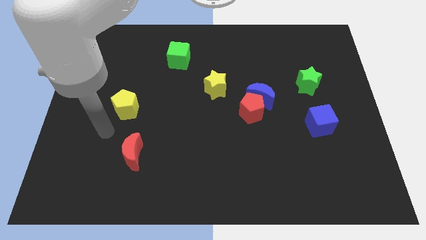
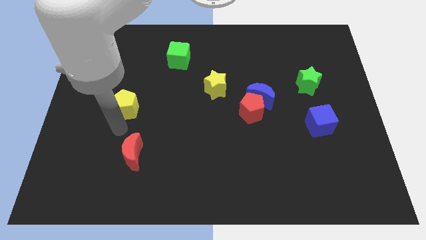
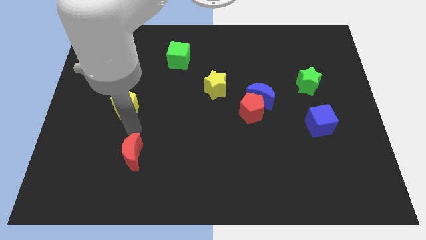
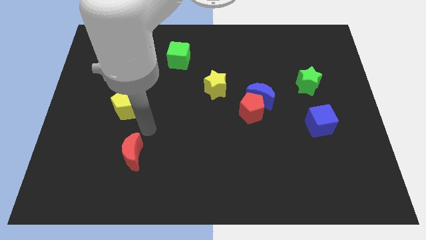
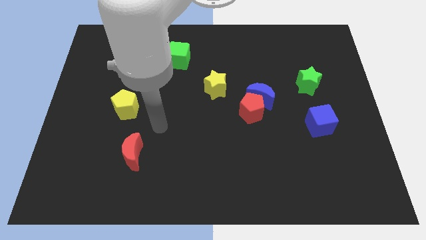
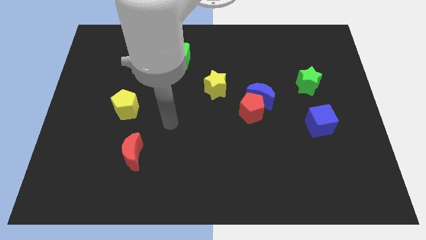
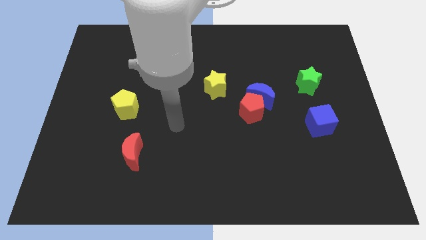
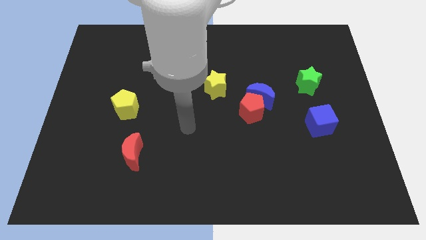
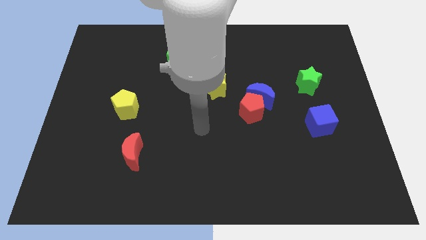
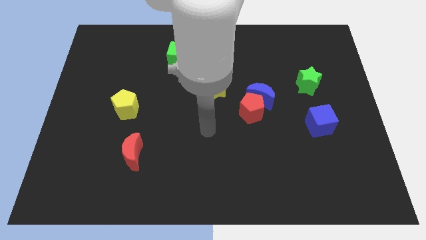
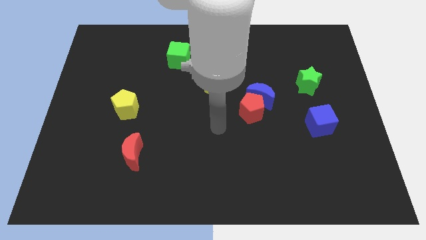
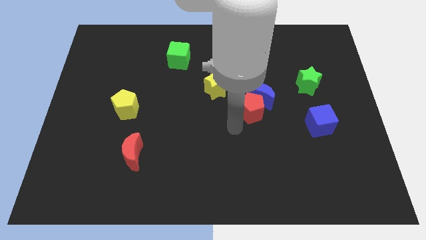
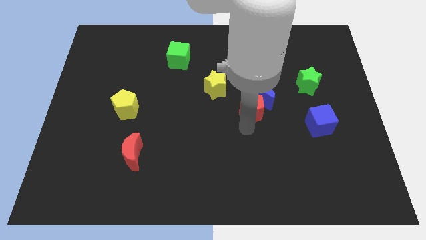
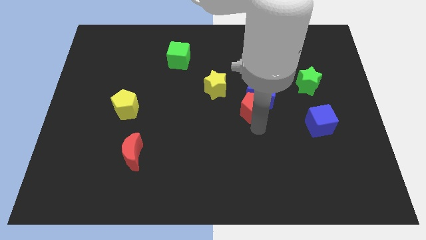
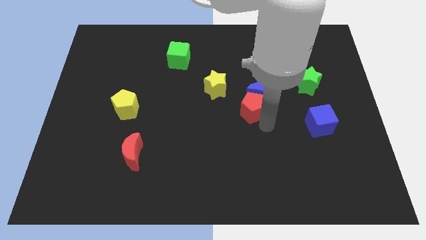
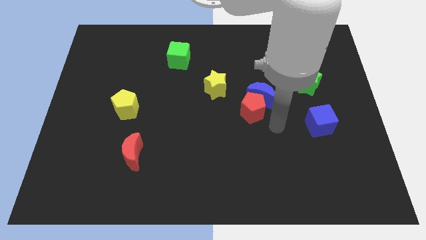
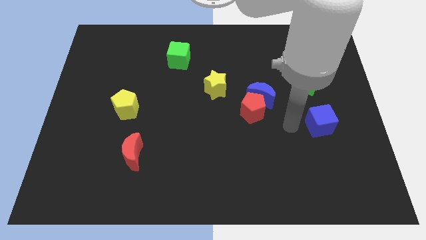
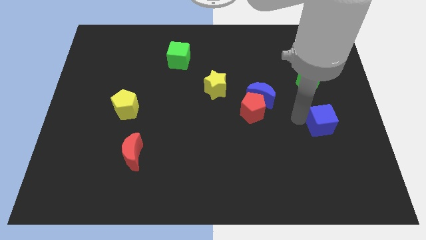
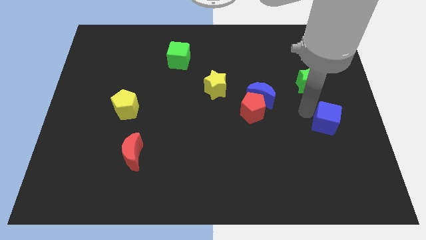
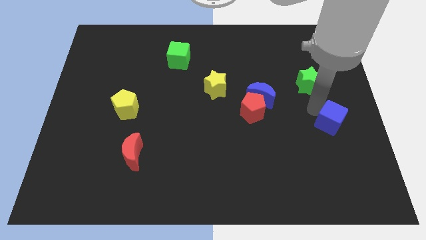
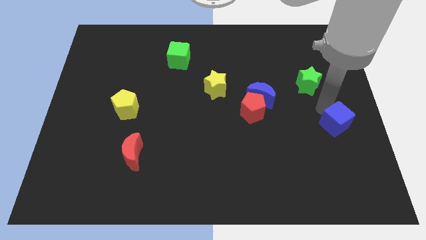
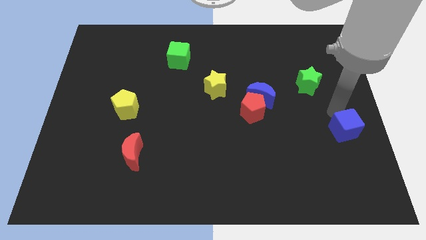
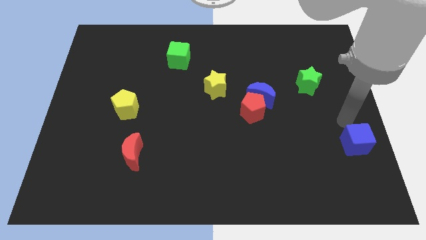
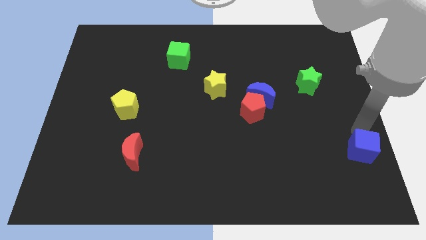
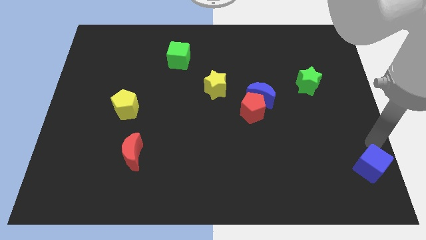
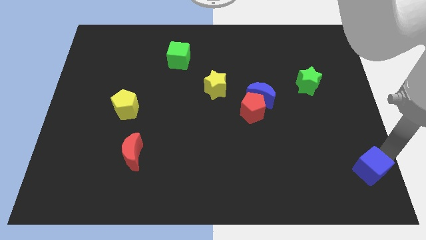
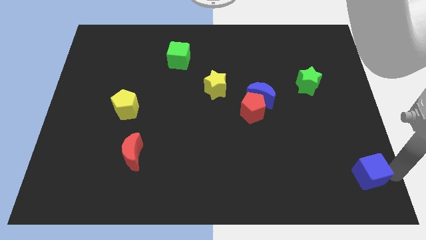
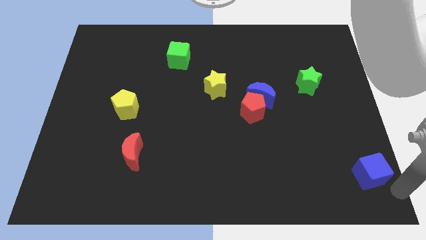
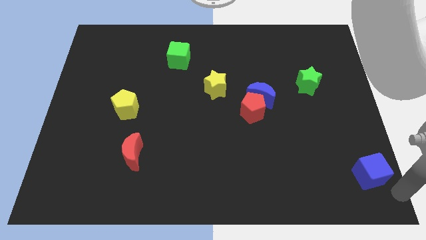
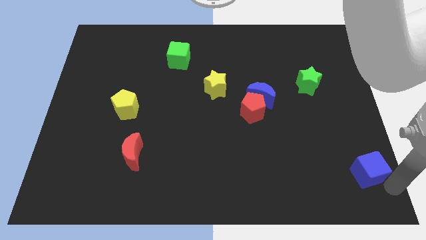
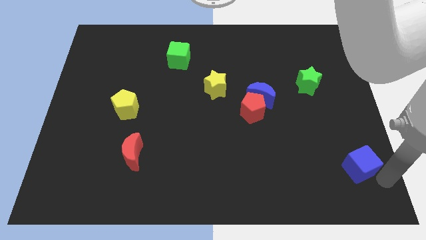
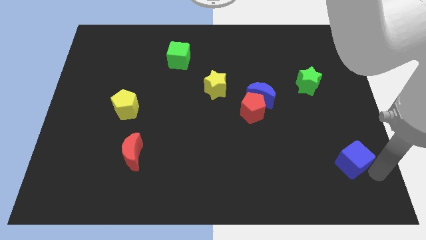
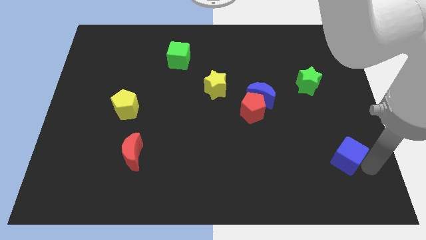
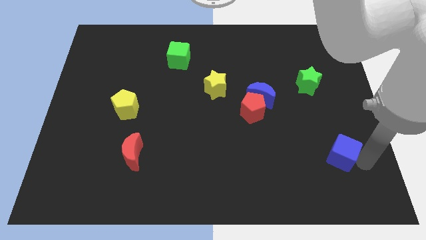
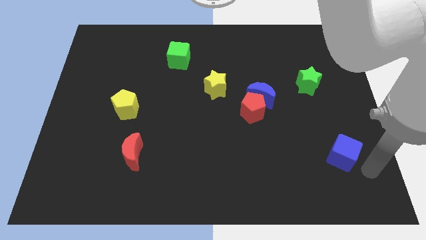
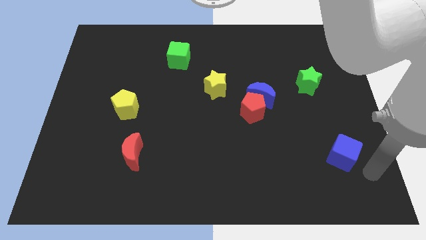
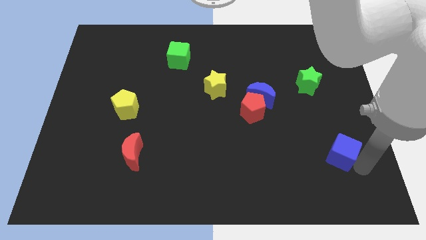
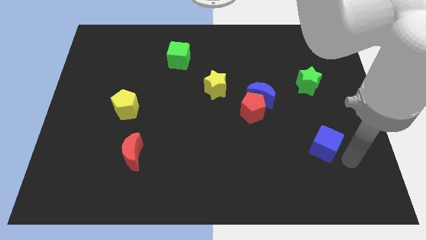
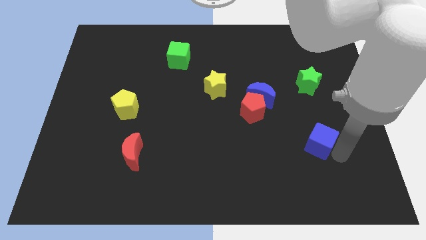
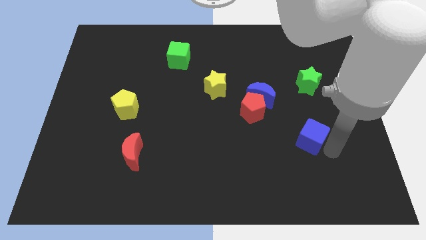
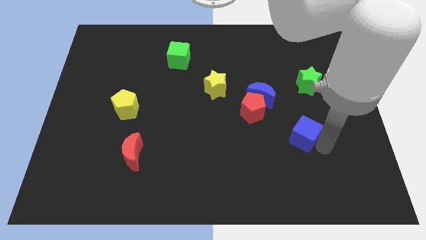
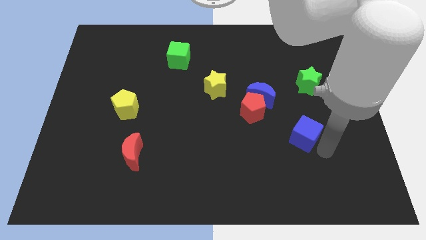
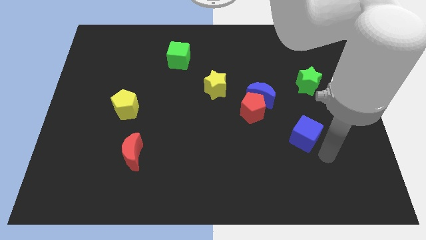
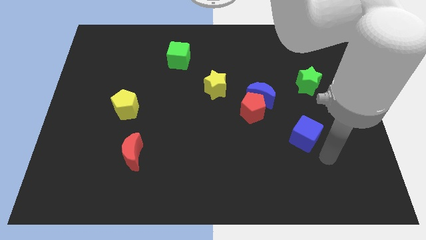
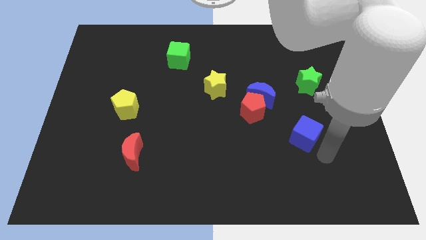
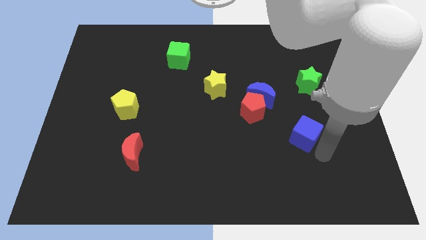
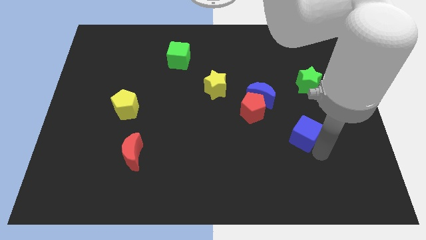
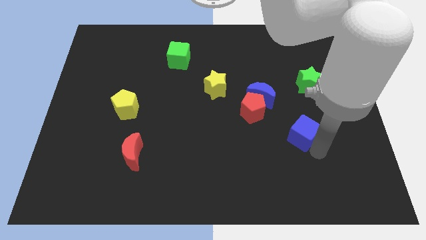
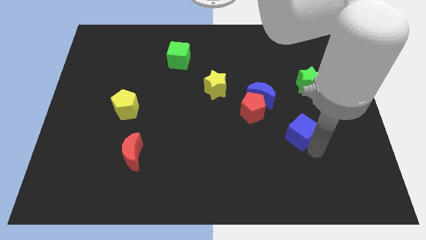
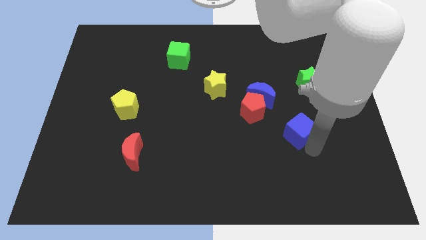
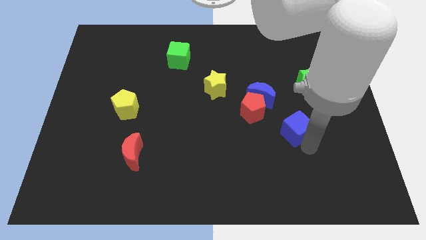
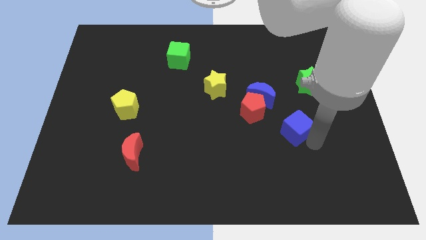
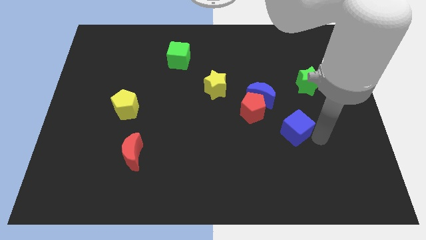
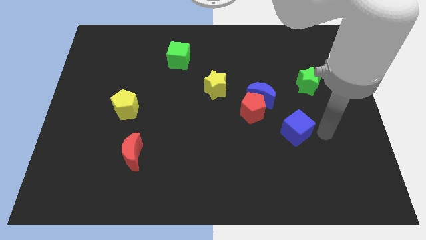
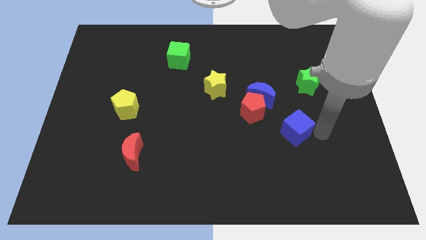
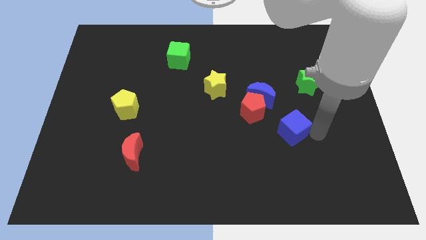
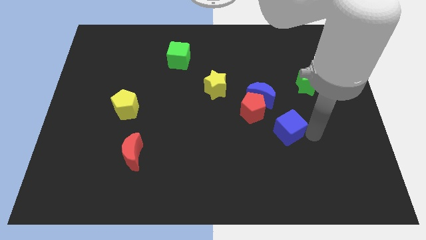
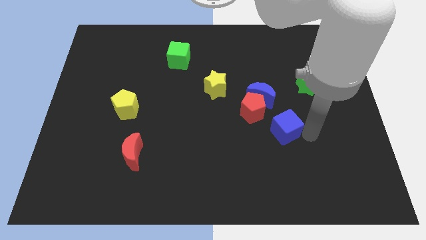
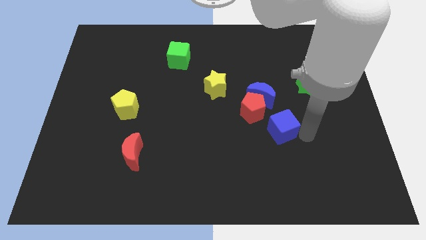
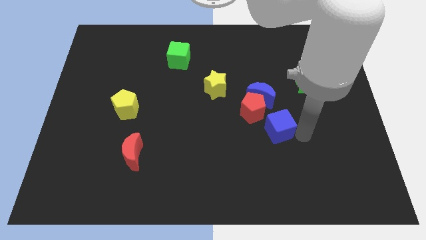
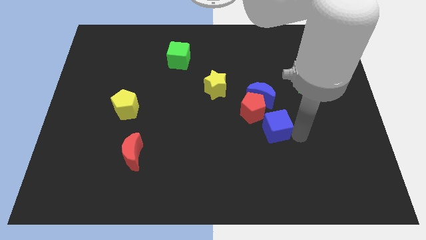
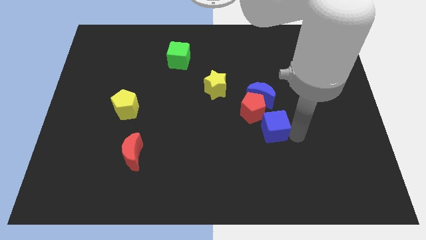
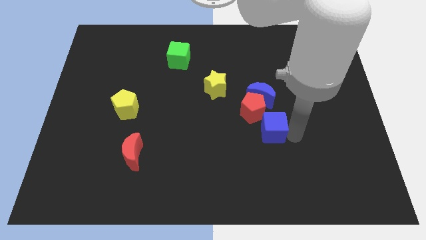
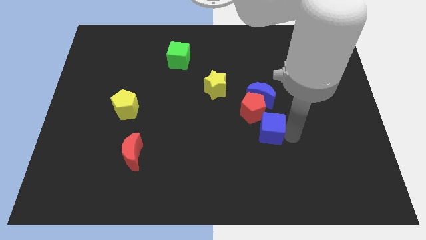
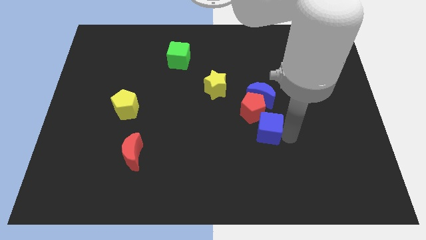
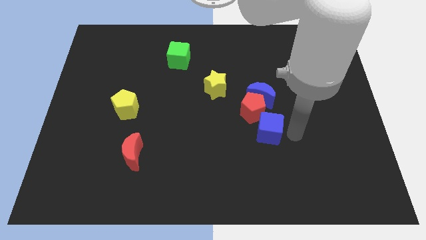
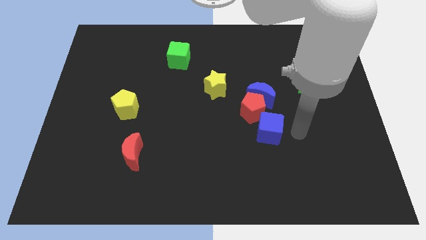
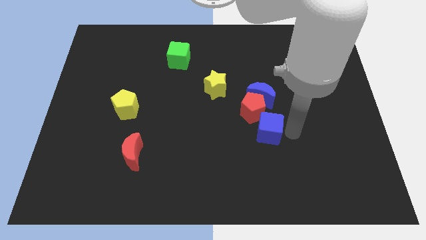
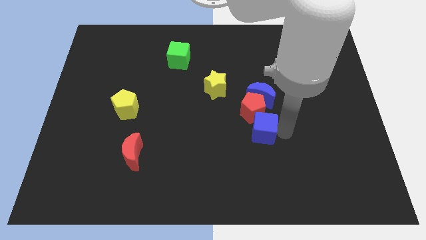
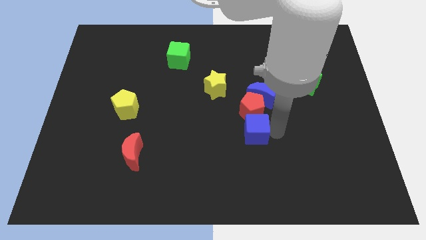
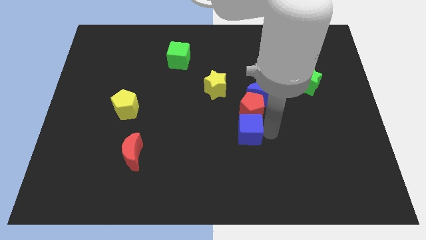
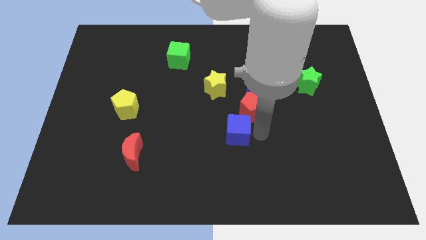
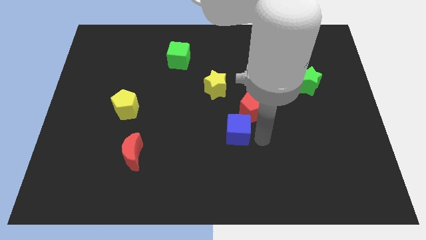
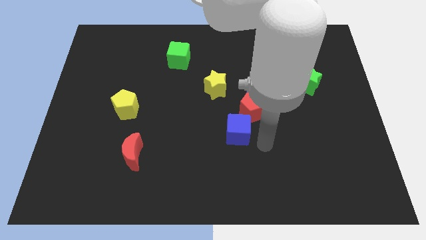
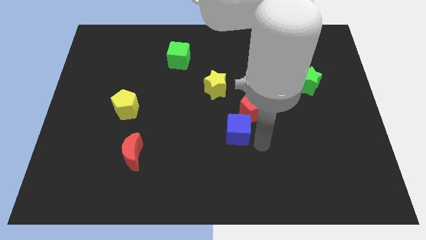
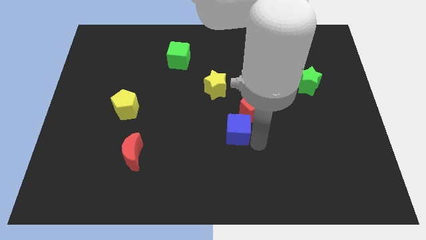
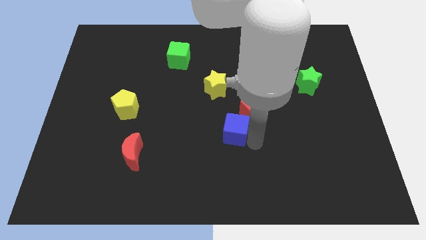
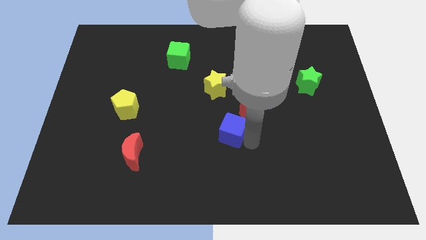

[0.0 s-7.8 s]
move the blue cube to the left
